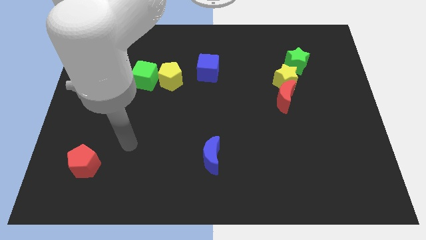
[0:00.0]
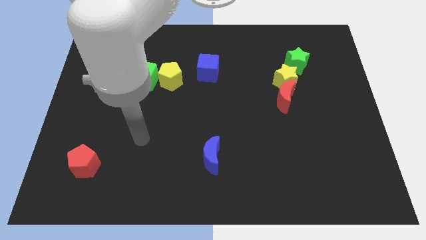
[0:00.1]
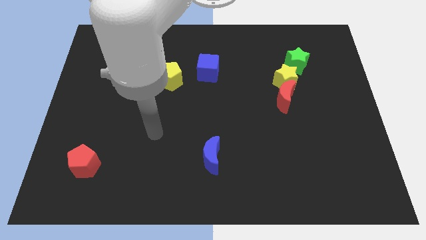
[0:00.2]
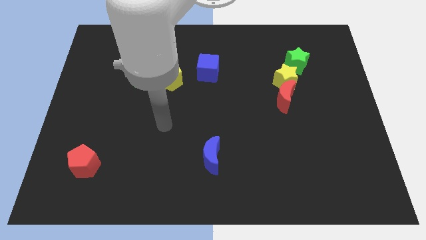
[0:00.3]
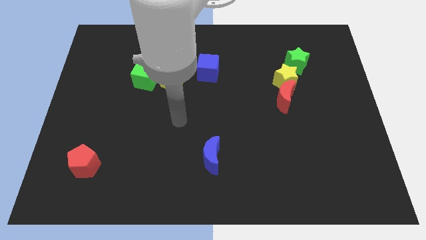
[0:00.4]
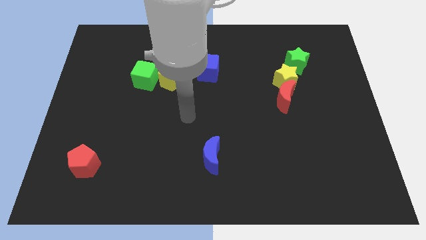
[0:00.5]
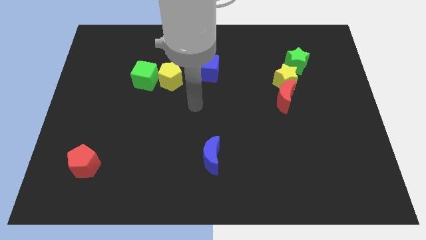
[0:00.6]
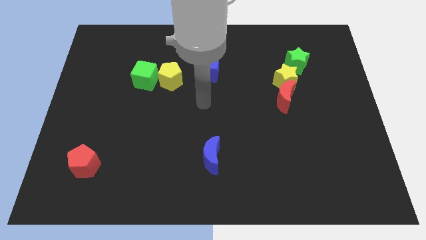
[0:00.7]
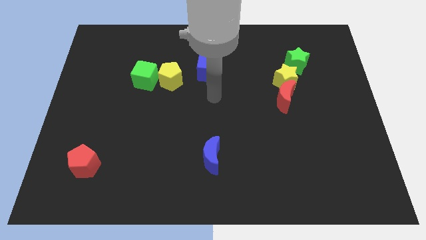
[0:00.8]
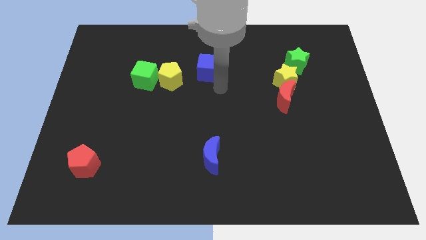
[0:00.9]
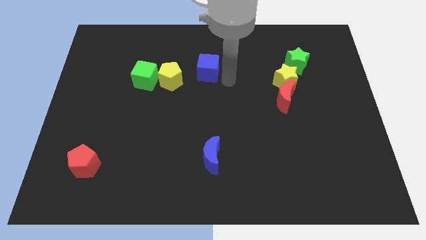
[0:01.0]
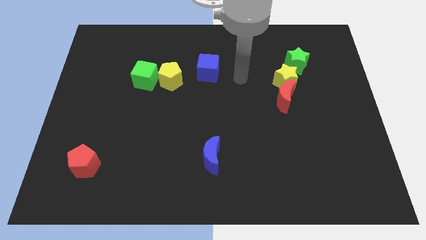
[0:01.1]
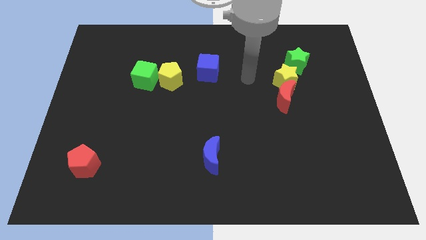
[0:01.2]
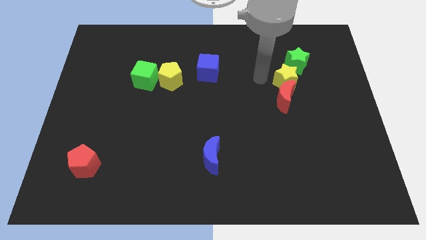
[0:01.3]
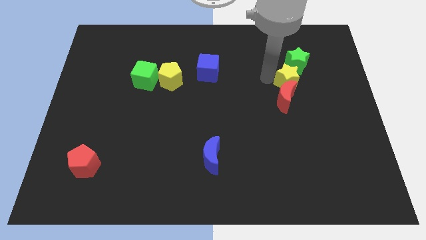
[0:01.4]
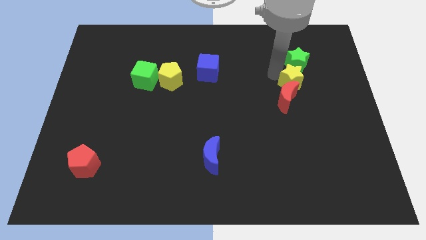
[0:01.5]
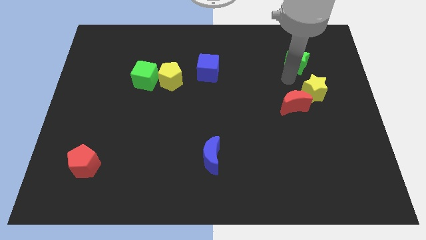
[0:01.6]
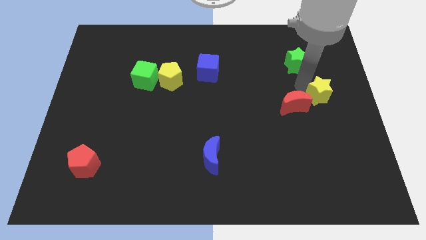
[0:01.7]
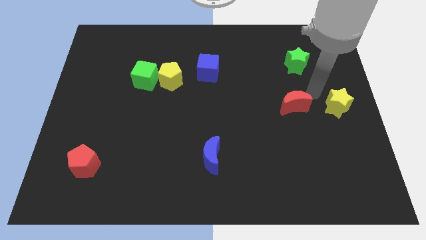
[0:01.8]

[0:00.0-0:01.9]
pull the red moon apart from the yellow star

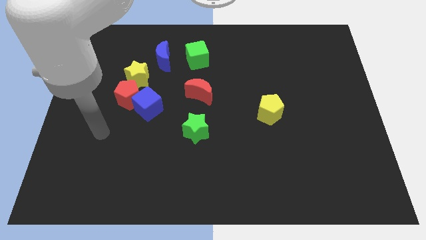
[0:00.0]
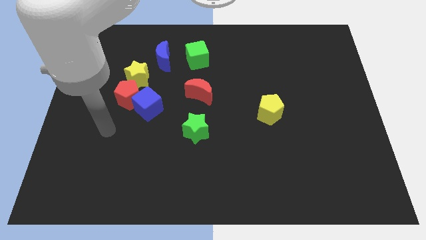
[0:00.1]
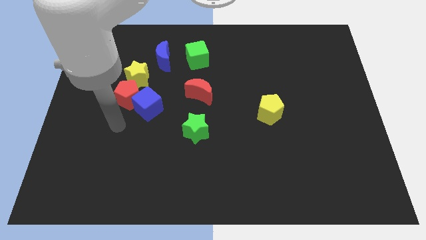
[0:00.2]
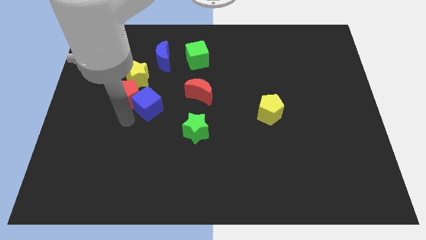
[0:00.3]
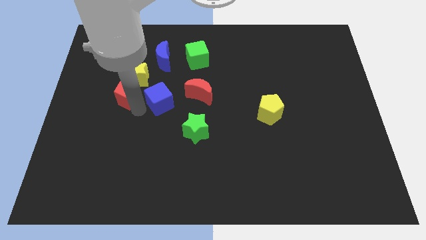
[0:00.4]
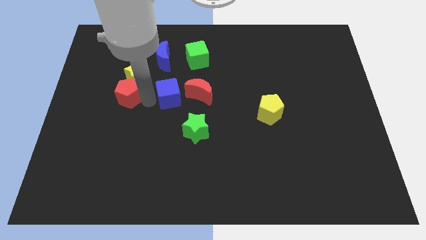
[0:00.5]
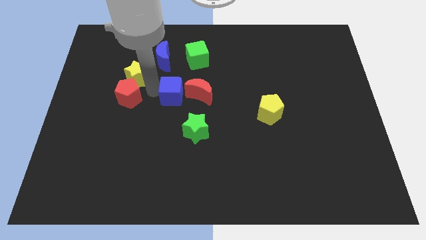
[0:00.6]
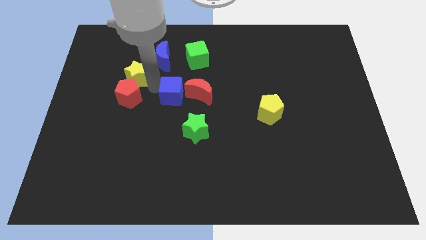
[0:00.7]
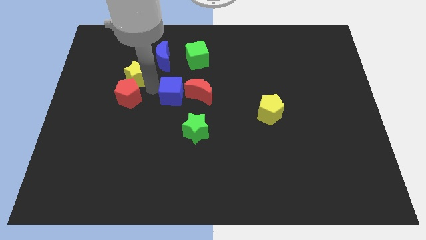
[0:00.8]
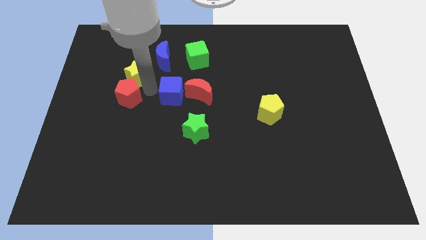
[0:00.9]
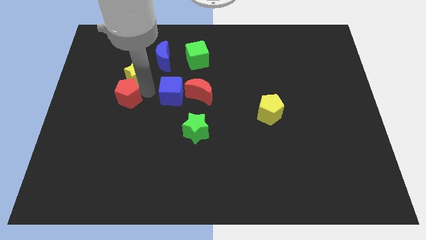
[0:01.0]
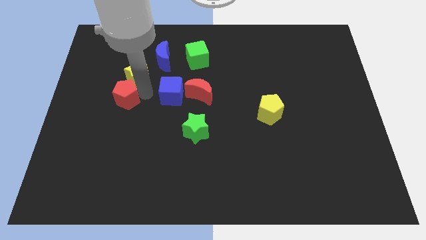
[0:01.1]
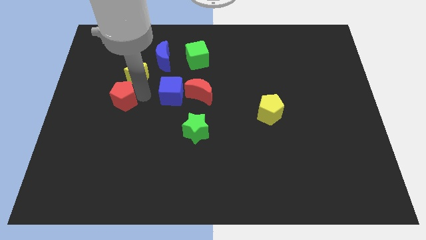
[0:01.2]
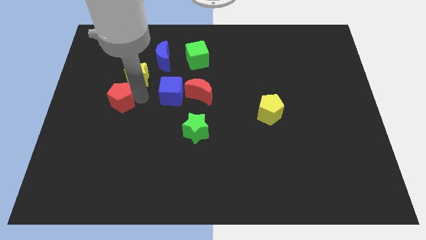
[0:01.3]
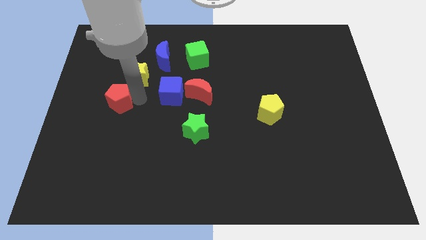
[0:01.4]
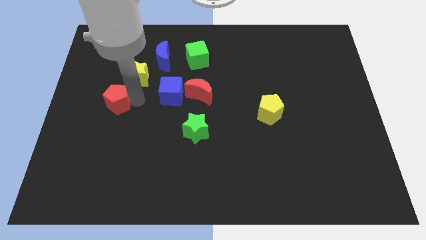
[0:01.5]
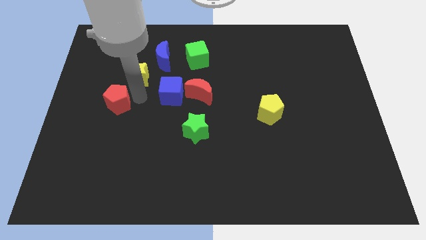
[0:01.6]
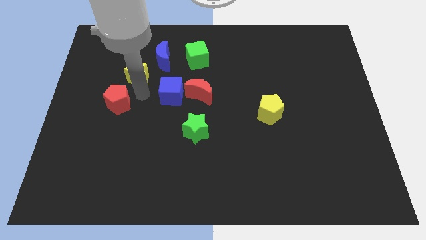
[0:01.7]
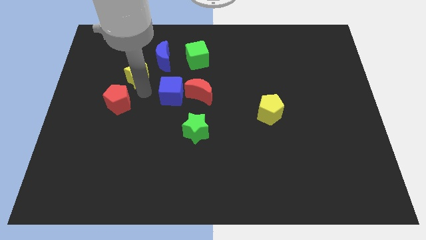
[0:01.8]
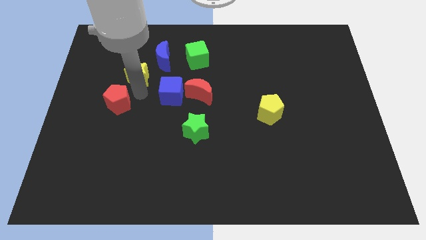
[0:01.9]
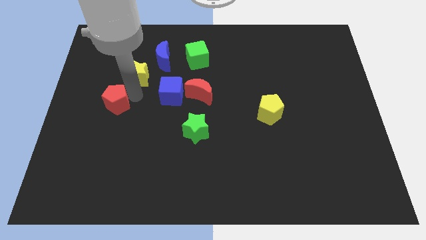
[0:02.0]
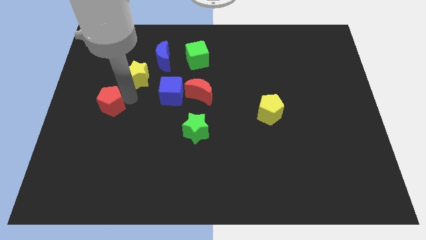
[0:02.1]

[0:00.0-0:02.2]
pull the red pentagon apart from the blue cube and yellow star

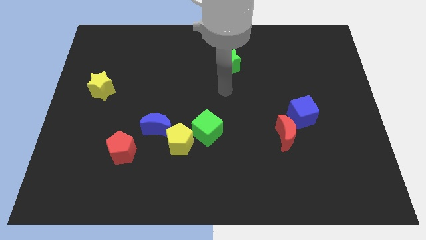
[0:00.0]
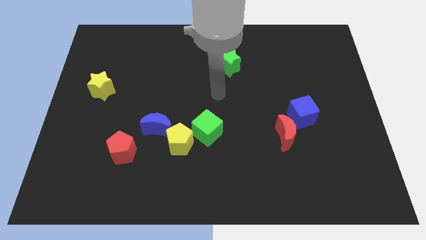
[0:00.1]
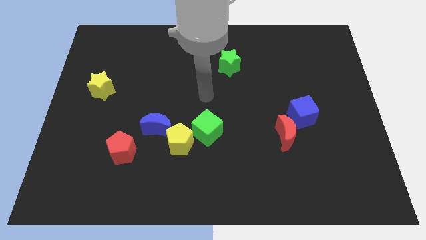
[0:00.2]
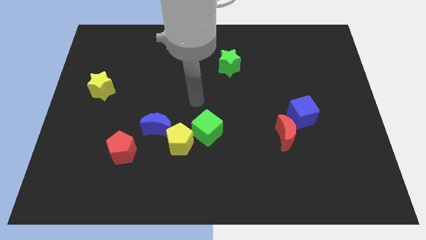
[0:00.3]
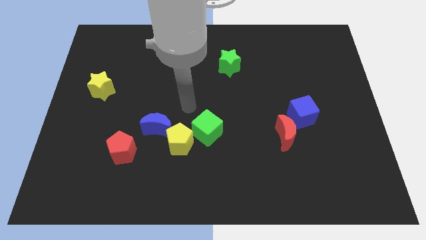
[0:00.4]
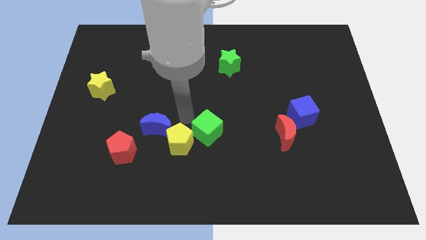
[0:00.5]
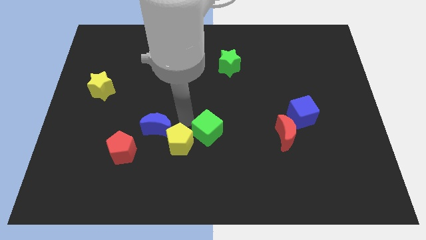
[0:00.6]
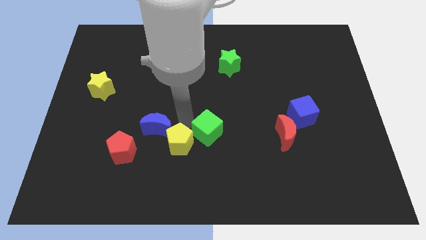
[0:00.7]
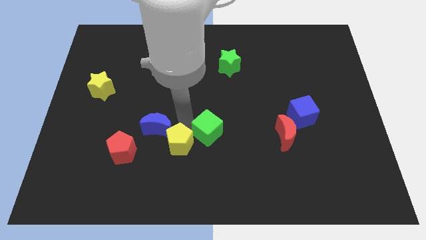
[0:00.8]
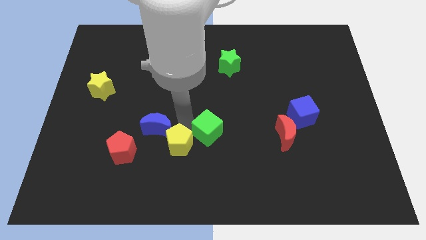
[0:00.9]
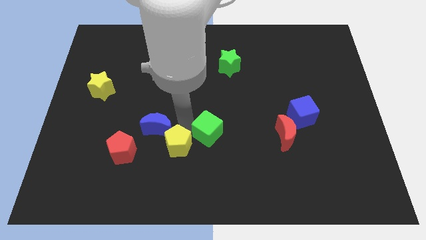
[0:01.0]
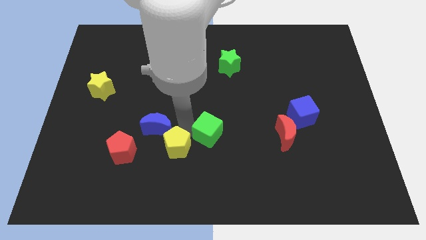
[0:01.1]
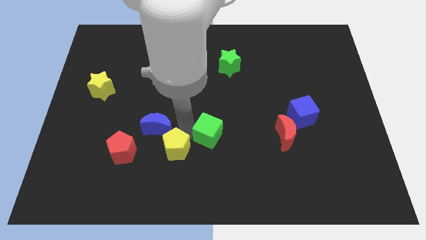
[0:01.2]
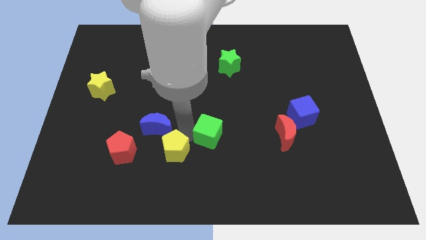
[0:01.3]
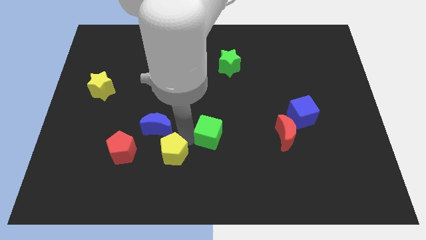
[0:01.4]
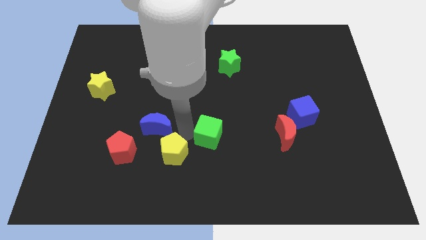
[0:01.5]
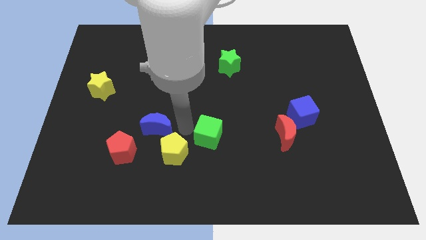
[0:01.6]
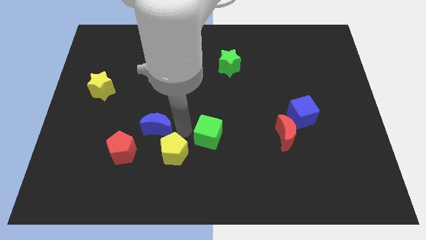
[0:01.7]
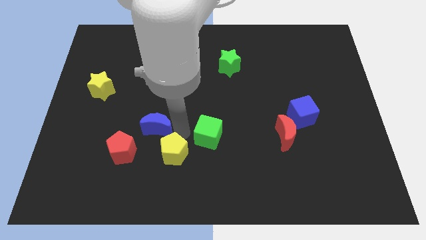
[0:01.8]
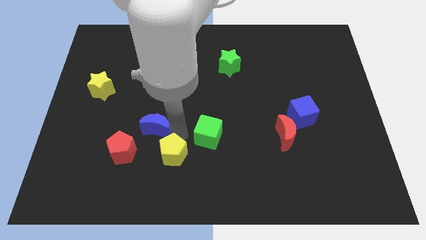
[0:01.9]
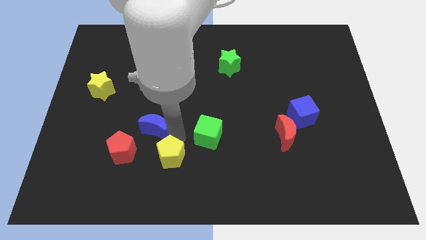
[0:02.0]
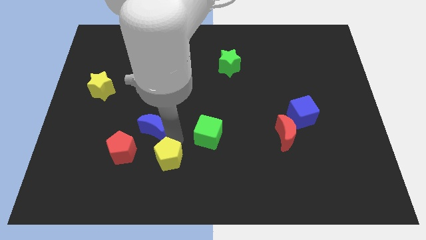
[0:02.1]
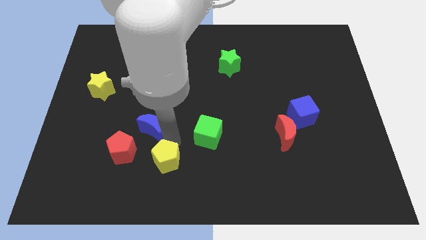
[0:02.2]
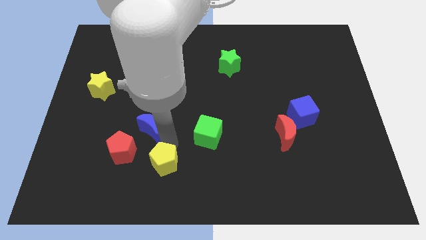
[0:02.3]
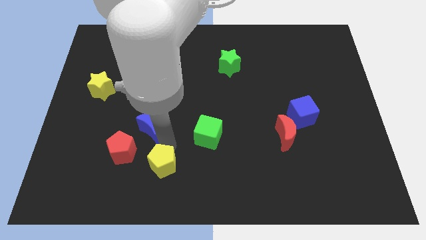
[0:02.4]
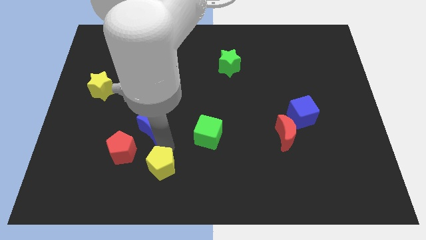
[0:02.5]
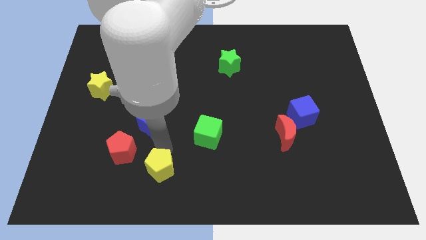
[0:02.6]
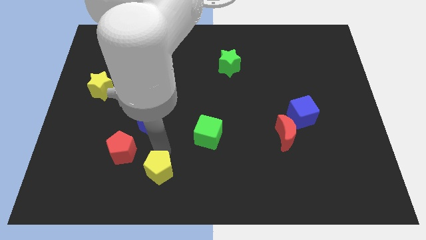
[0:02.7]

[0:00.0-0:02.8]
separate the yellow pentagon from the blue moon and green cube

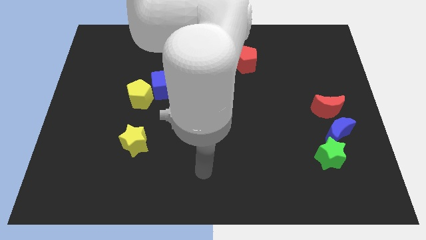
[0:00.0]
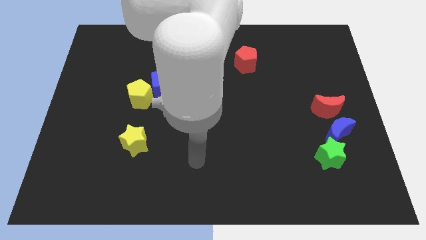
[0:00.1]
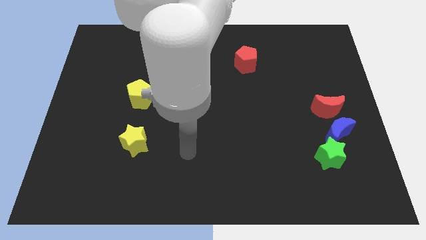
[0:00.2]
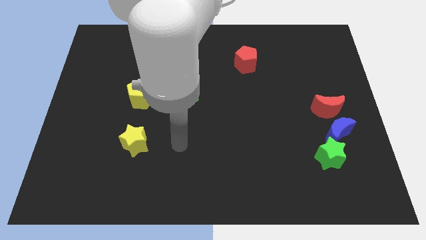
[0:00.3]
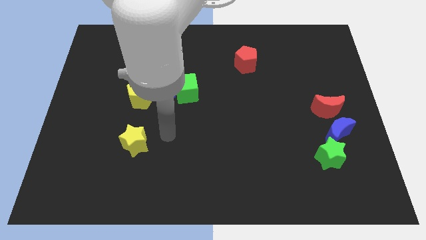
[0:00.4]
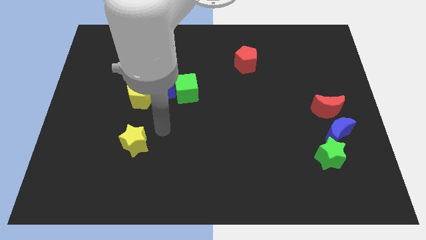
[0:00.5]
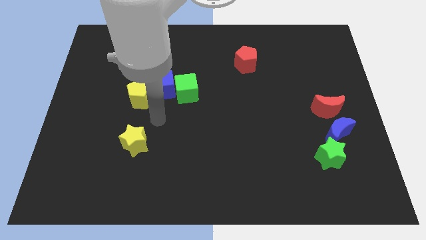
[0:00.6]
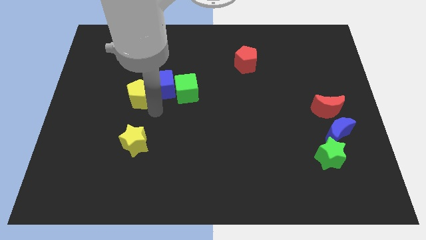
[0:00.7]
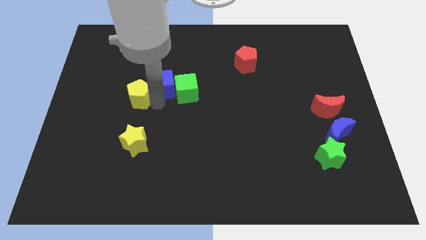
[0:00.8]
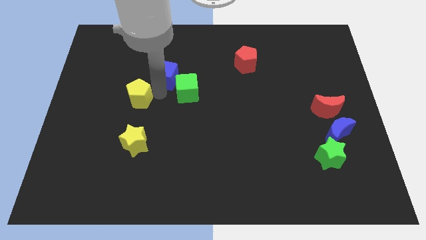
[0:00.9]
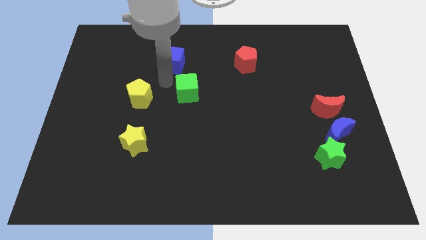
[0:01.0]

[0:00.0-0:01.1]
move the green cube away from the blue cube

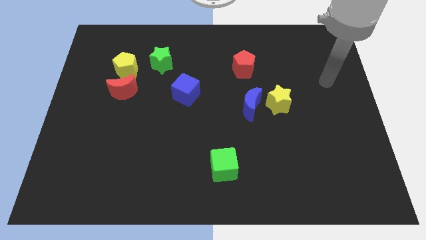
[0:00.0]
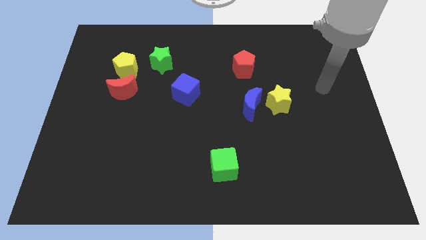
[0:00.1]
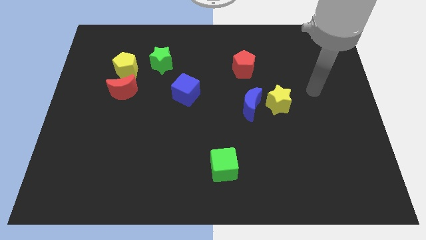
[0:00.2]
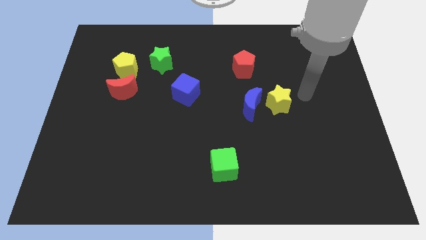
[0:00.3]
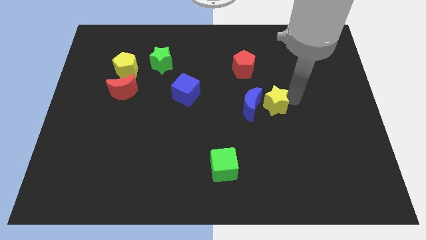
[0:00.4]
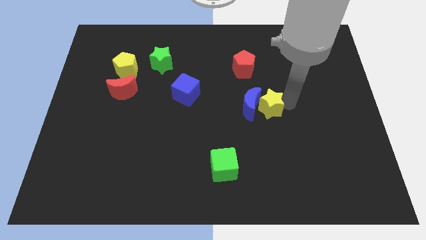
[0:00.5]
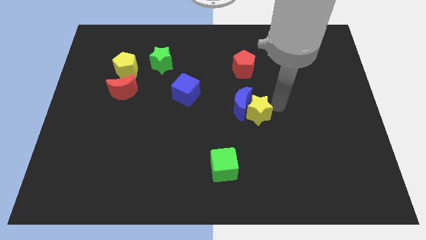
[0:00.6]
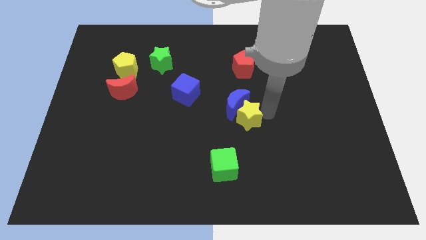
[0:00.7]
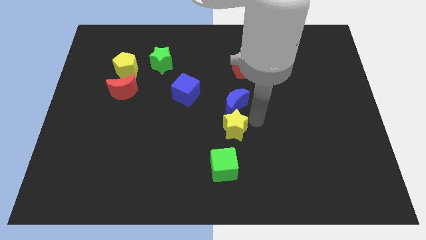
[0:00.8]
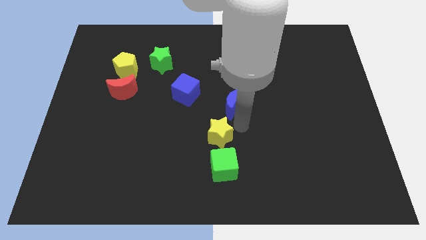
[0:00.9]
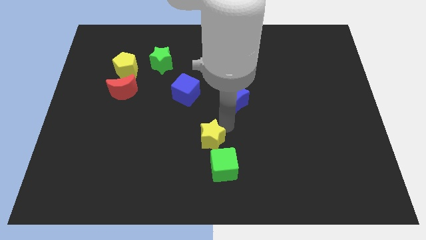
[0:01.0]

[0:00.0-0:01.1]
separate the blue moon from the yellow star

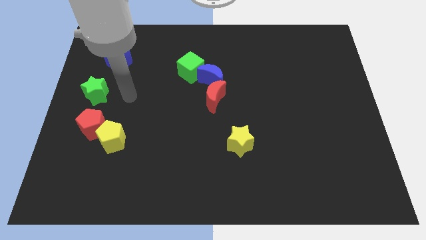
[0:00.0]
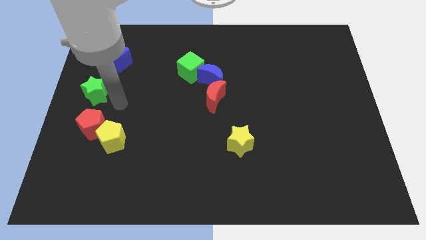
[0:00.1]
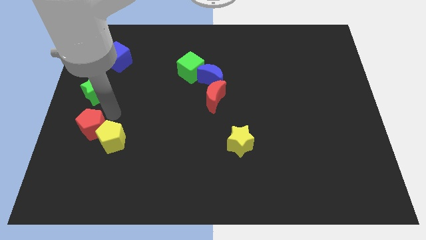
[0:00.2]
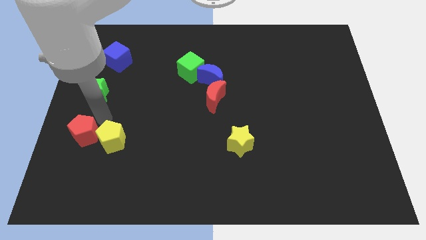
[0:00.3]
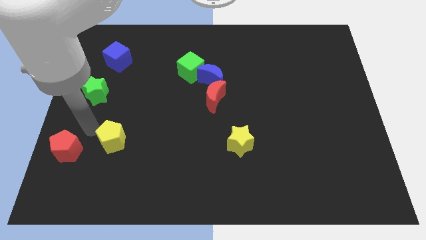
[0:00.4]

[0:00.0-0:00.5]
separate the yellow pentagon from the red pentagon
